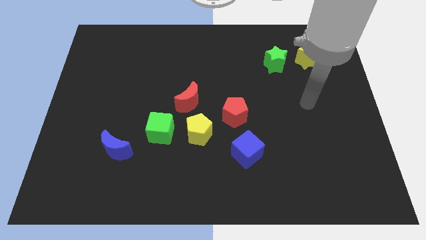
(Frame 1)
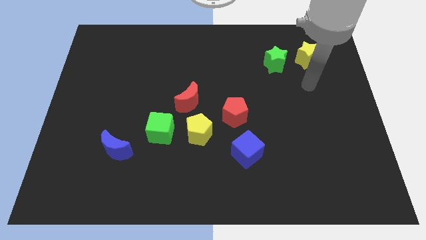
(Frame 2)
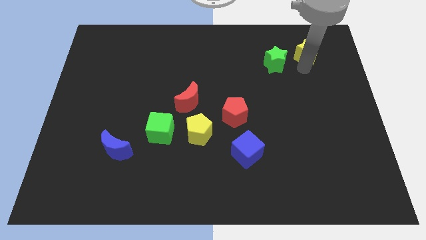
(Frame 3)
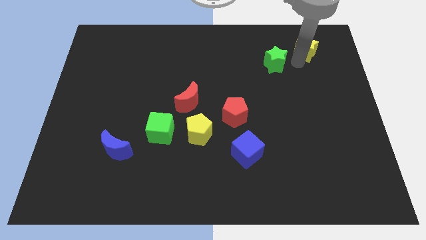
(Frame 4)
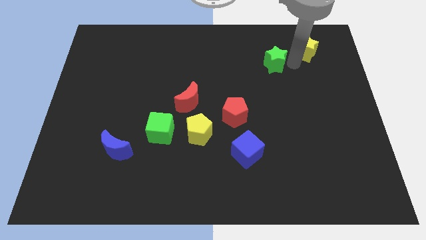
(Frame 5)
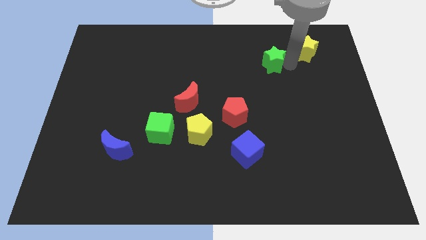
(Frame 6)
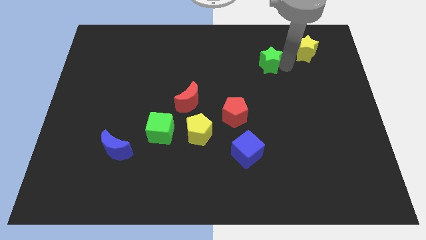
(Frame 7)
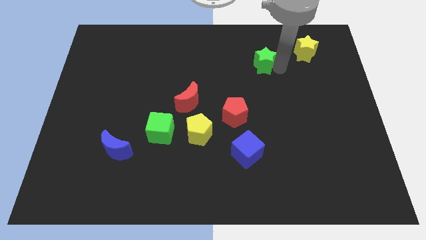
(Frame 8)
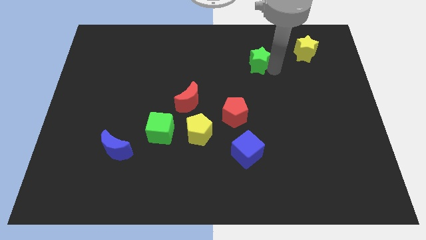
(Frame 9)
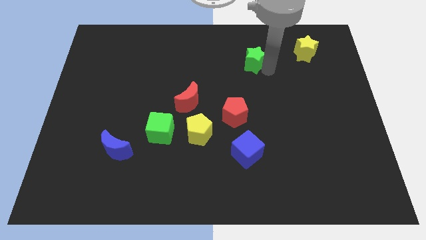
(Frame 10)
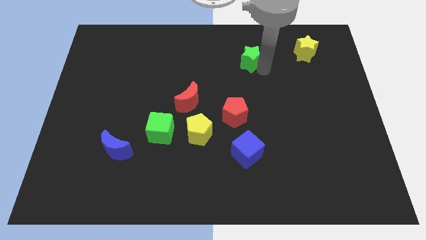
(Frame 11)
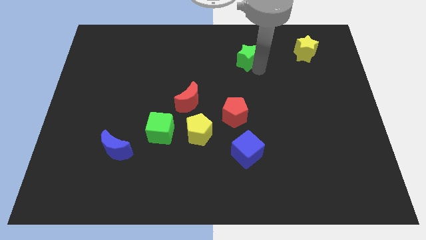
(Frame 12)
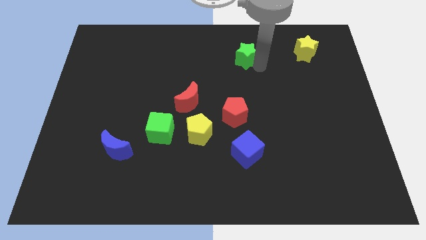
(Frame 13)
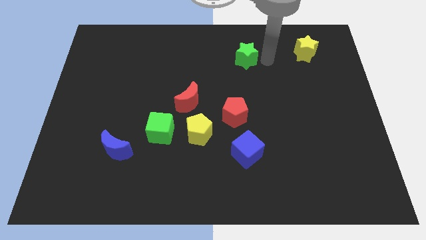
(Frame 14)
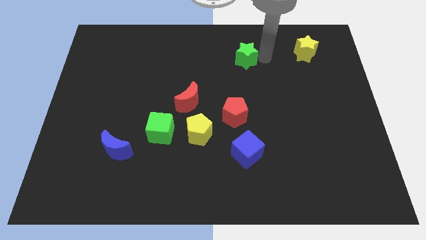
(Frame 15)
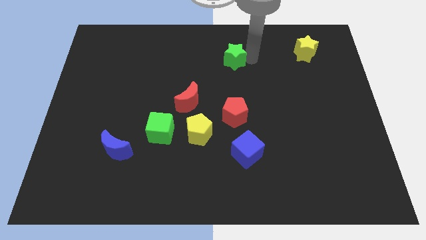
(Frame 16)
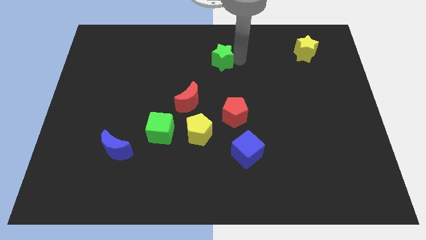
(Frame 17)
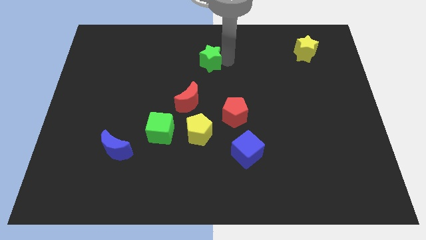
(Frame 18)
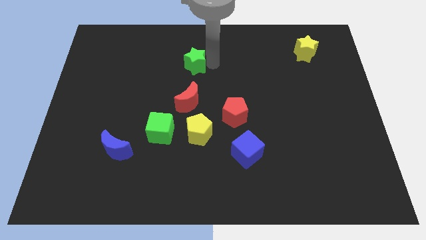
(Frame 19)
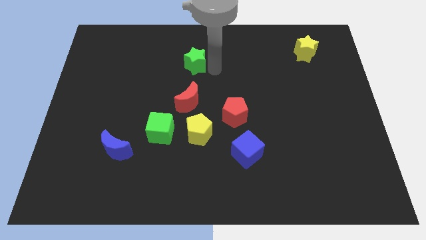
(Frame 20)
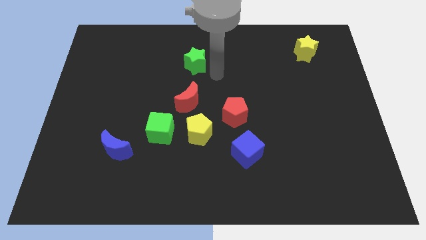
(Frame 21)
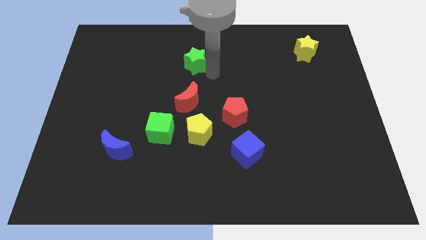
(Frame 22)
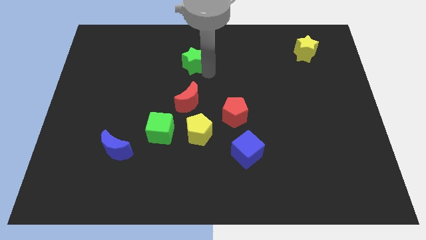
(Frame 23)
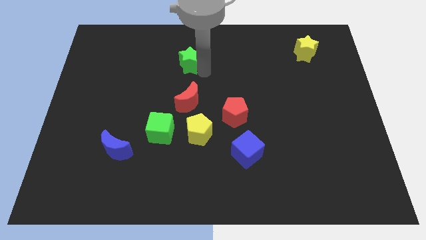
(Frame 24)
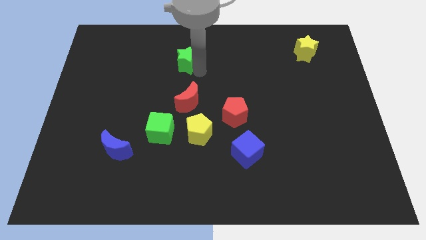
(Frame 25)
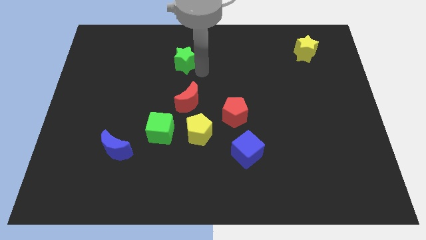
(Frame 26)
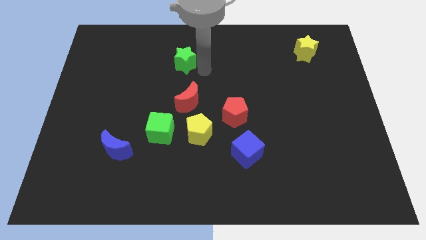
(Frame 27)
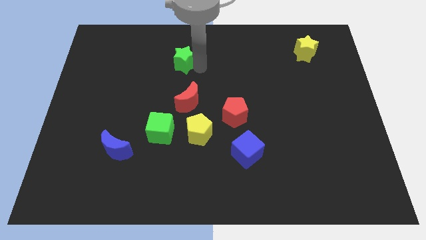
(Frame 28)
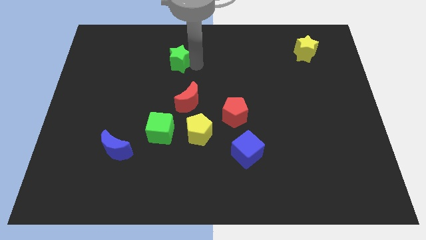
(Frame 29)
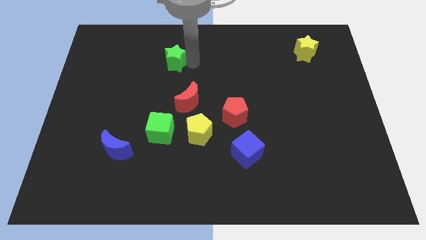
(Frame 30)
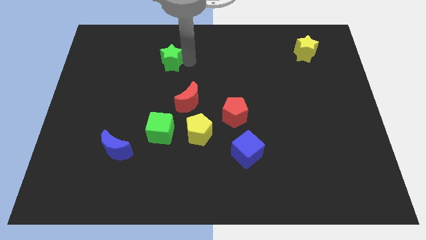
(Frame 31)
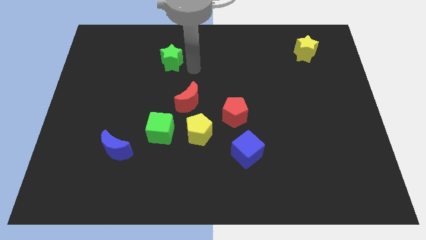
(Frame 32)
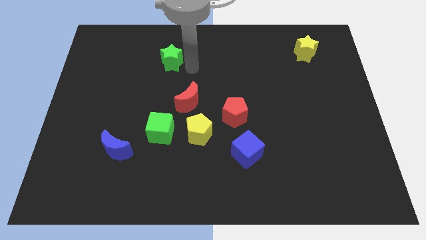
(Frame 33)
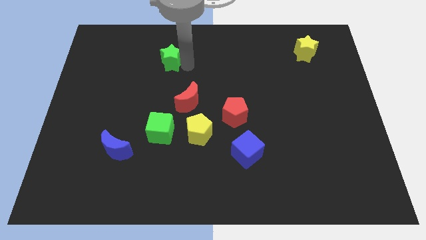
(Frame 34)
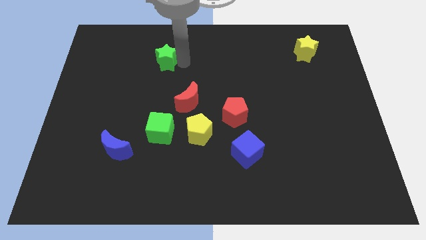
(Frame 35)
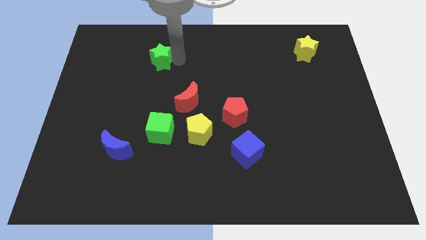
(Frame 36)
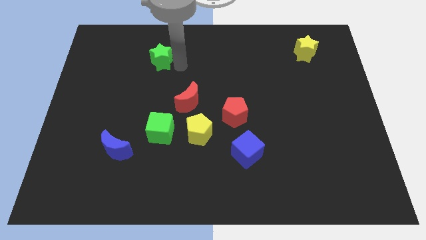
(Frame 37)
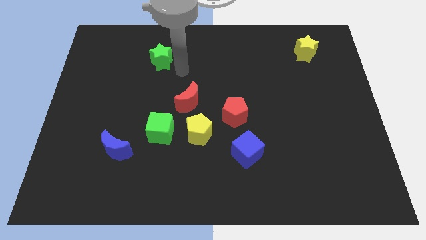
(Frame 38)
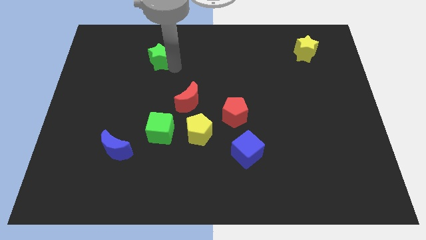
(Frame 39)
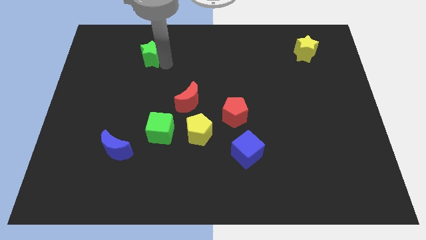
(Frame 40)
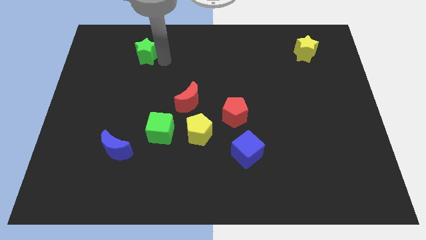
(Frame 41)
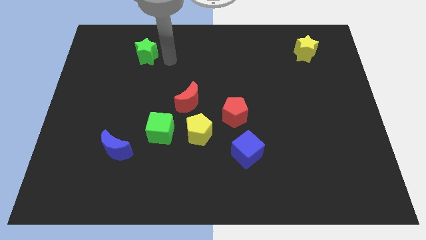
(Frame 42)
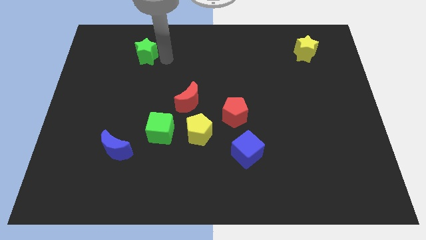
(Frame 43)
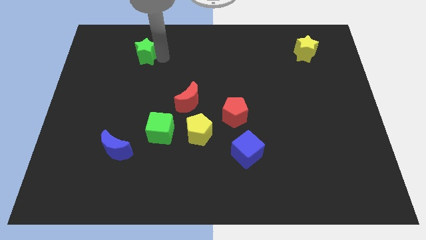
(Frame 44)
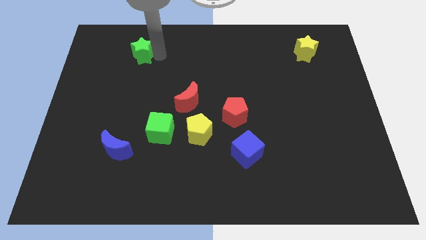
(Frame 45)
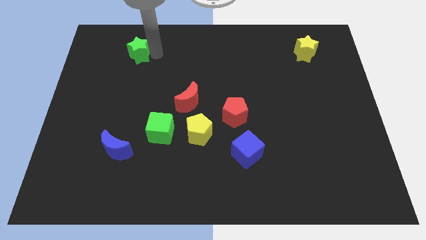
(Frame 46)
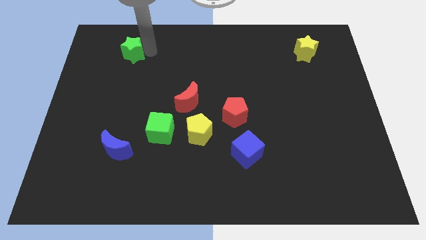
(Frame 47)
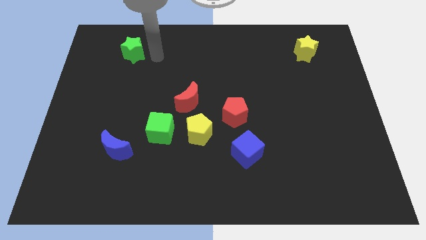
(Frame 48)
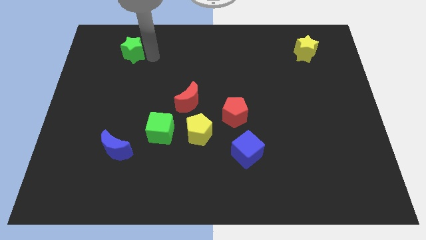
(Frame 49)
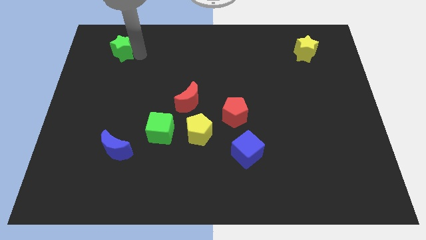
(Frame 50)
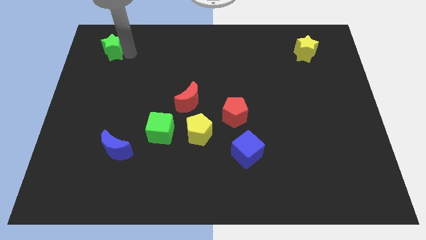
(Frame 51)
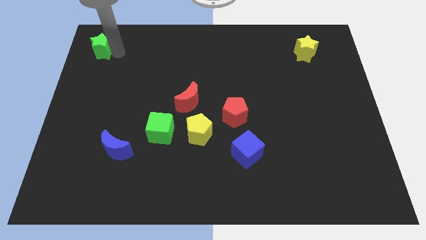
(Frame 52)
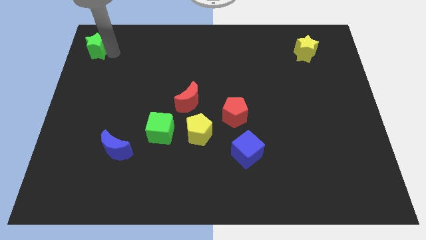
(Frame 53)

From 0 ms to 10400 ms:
slide the green star to the top left

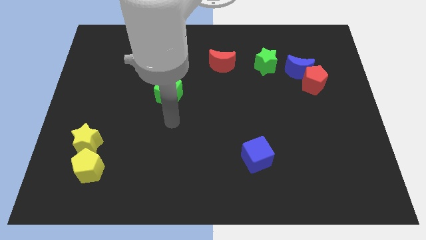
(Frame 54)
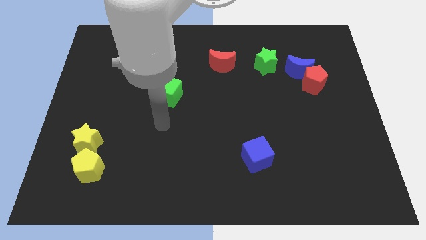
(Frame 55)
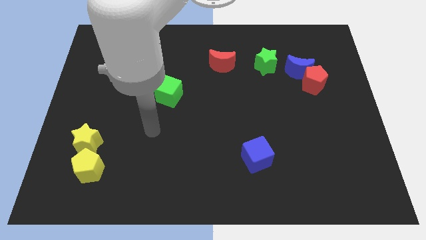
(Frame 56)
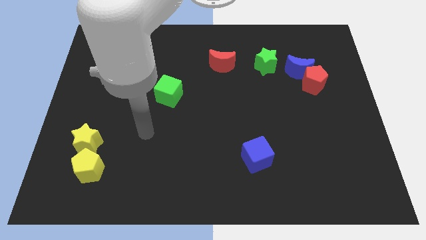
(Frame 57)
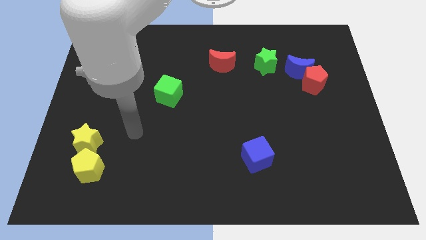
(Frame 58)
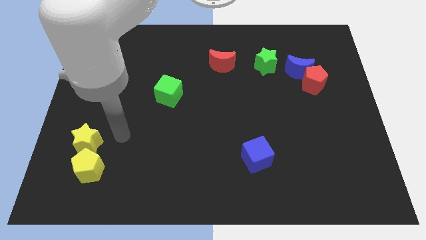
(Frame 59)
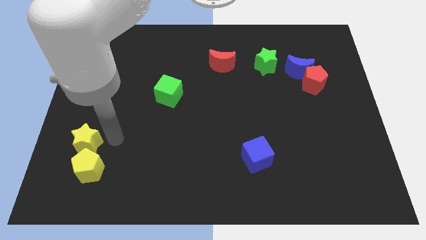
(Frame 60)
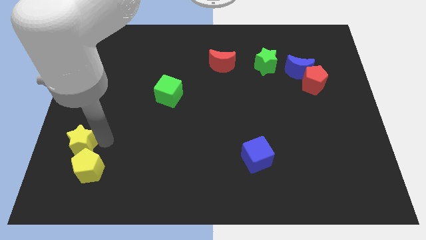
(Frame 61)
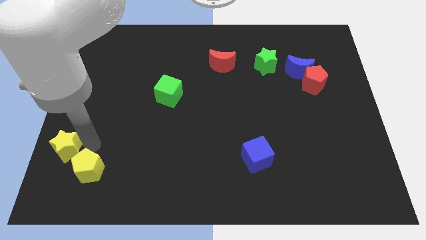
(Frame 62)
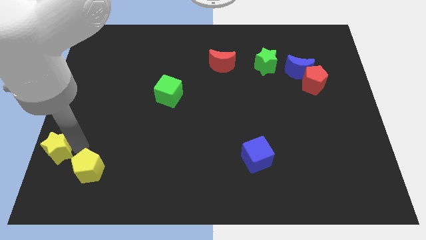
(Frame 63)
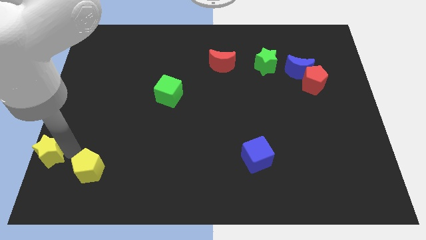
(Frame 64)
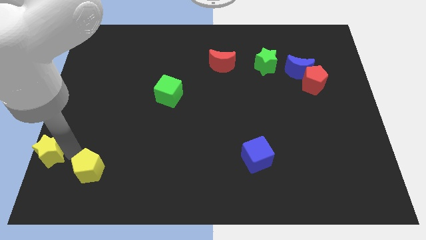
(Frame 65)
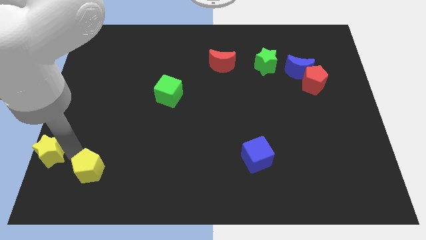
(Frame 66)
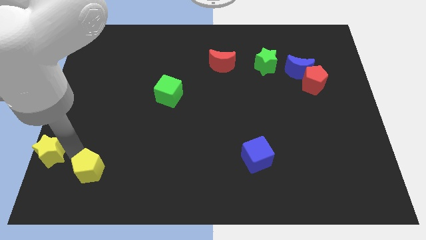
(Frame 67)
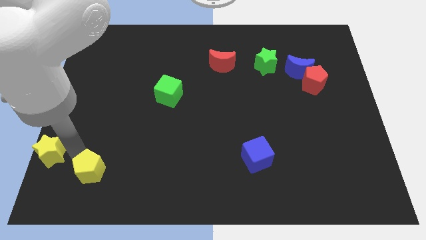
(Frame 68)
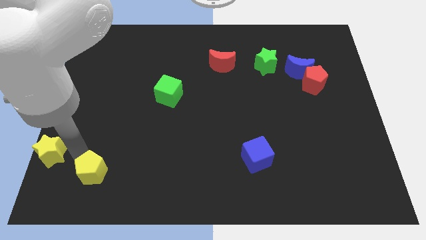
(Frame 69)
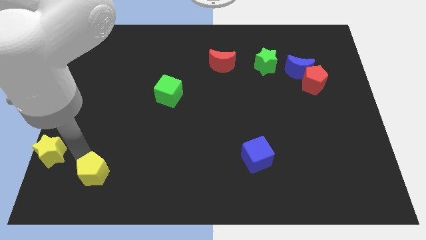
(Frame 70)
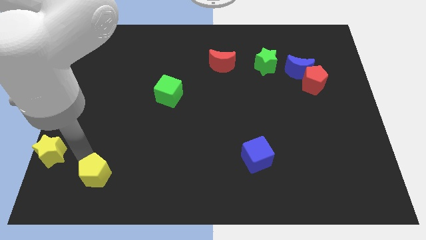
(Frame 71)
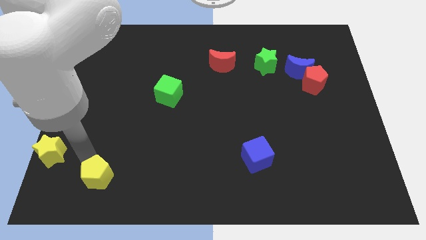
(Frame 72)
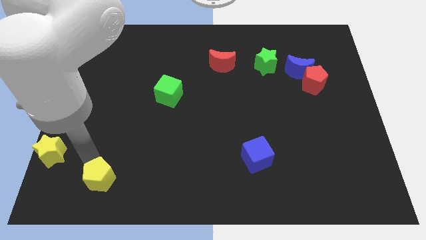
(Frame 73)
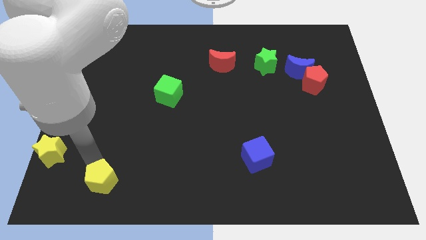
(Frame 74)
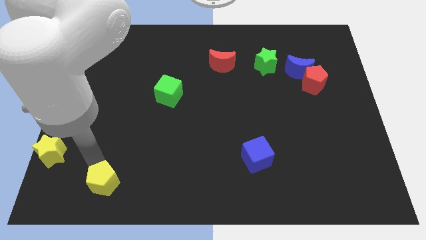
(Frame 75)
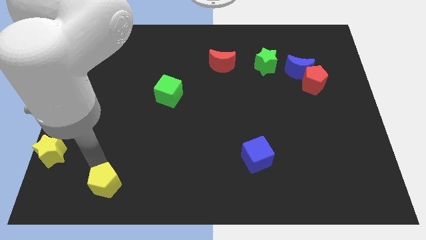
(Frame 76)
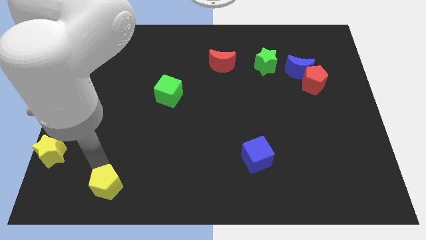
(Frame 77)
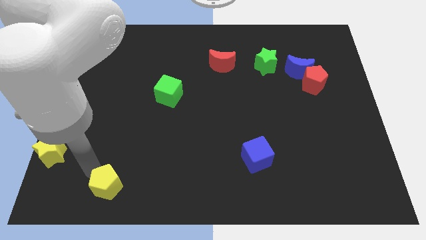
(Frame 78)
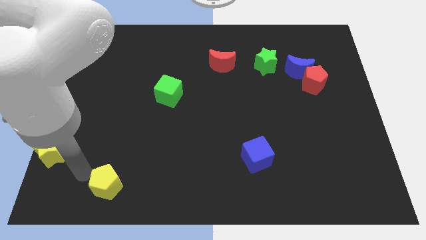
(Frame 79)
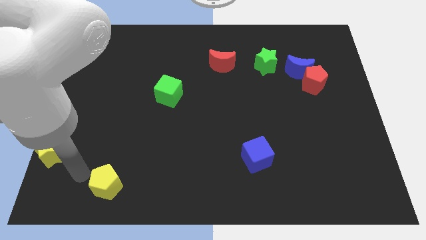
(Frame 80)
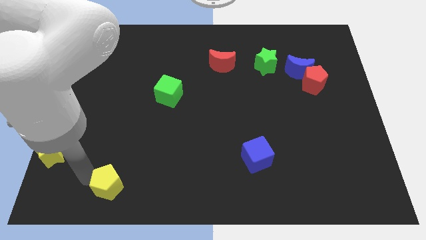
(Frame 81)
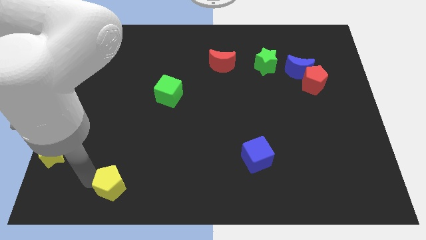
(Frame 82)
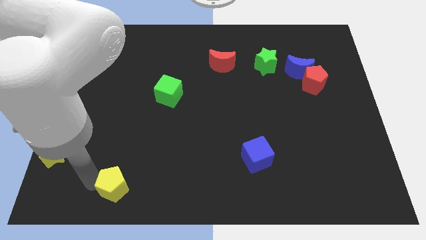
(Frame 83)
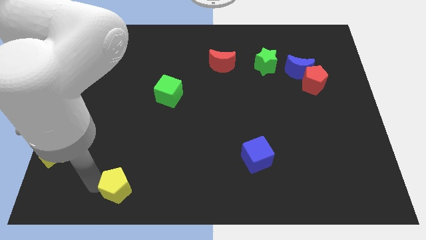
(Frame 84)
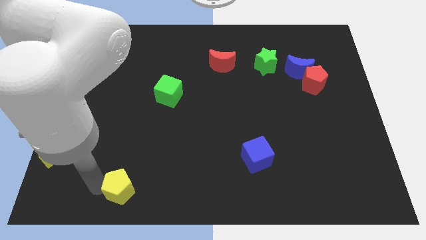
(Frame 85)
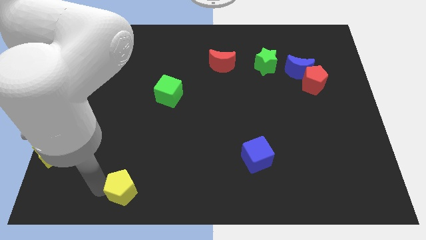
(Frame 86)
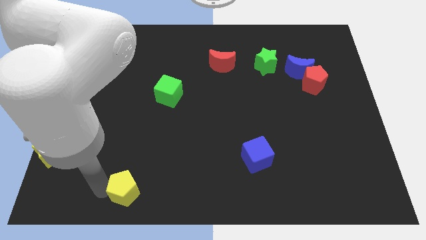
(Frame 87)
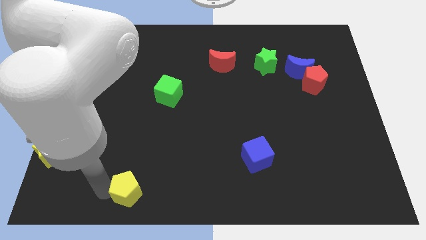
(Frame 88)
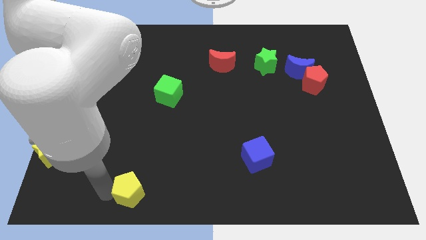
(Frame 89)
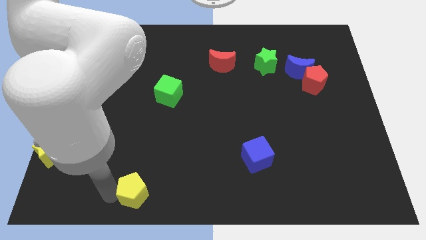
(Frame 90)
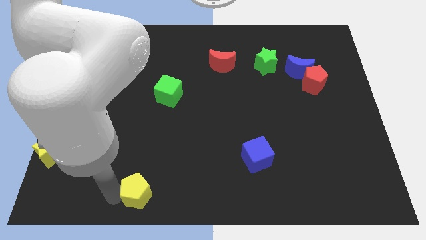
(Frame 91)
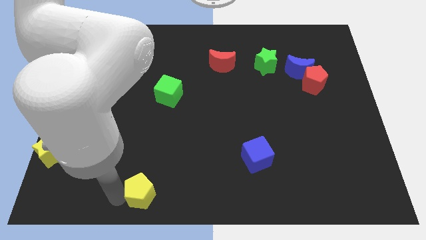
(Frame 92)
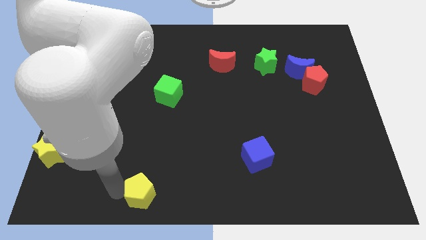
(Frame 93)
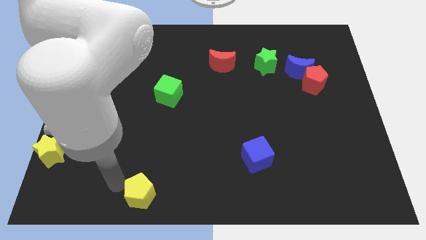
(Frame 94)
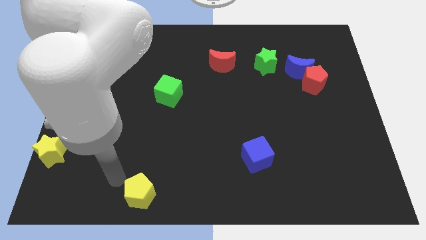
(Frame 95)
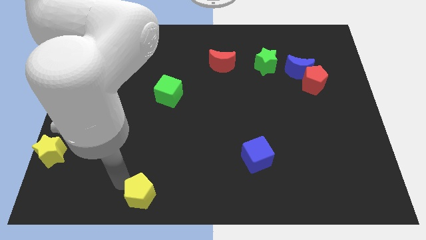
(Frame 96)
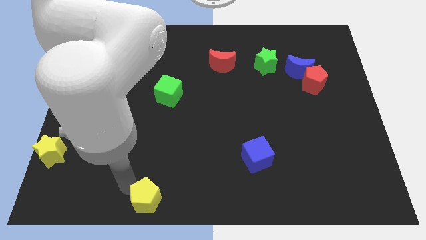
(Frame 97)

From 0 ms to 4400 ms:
put the yellow pentagon to the bottom side
